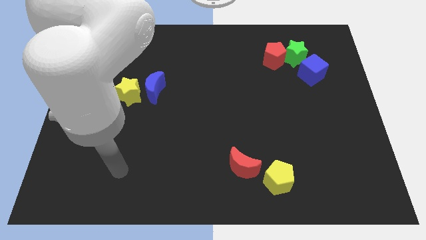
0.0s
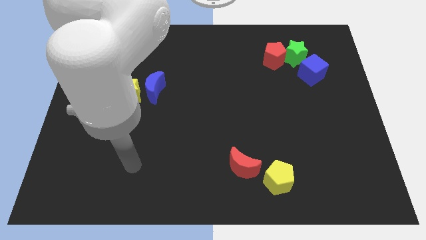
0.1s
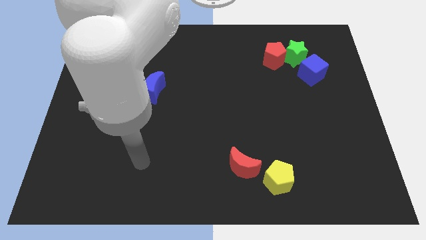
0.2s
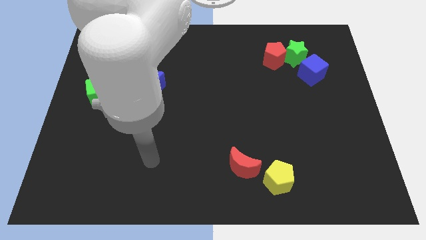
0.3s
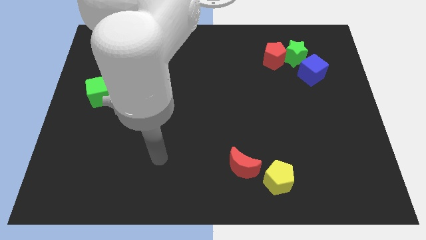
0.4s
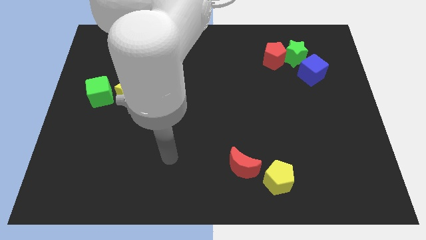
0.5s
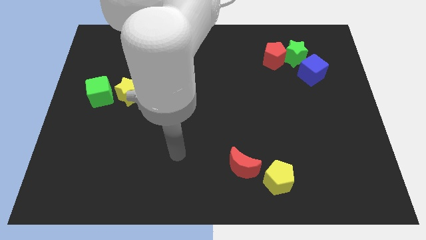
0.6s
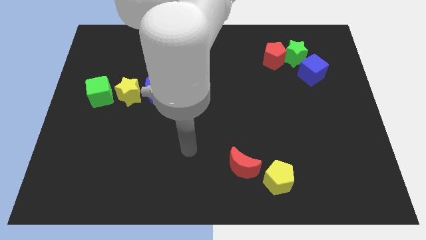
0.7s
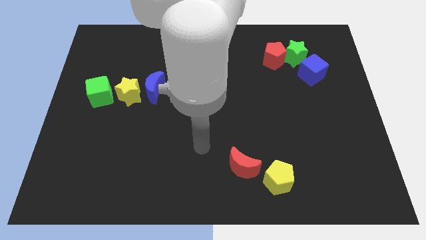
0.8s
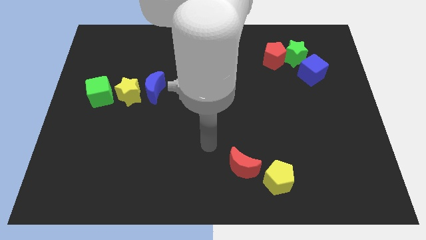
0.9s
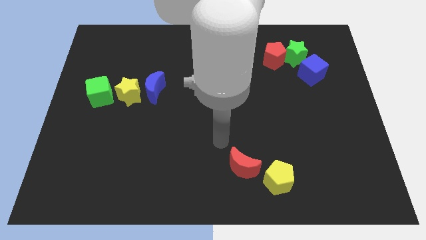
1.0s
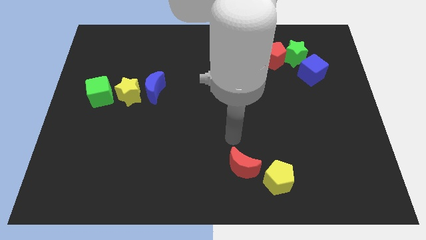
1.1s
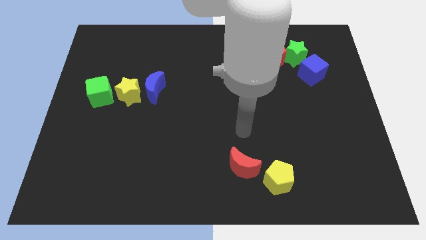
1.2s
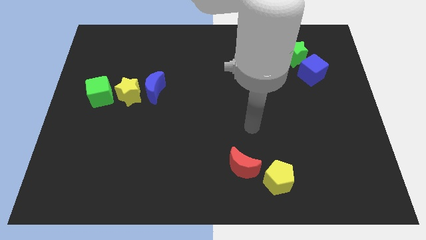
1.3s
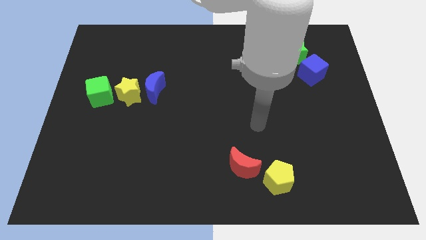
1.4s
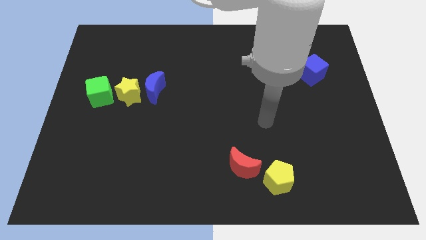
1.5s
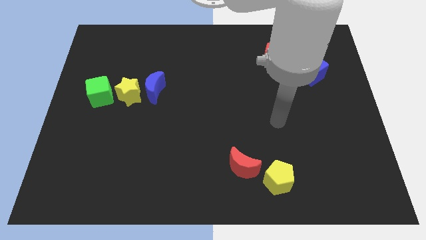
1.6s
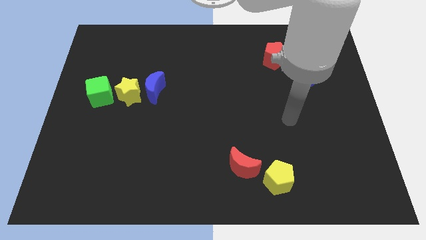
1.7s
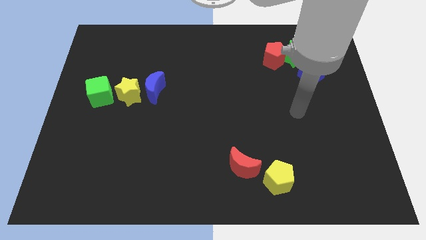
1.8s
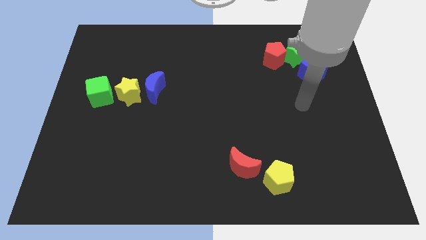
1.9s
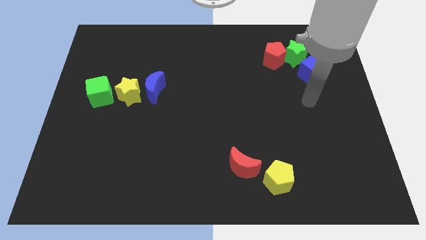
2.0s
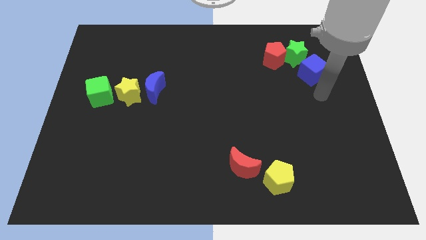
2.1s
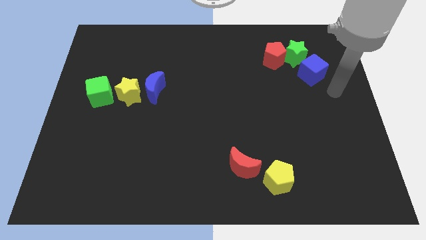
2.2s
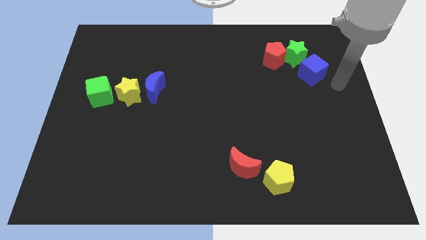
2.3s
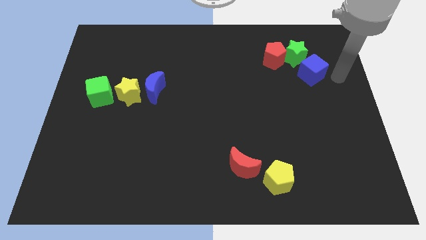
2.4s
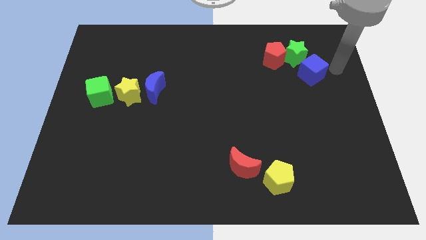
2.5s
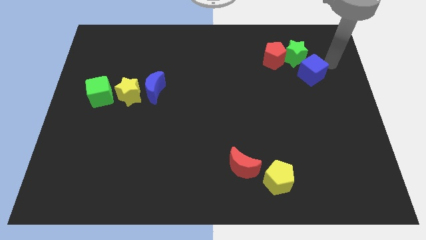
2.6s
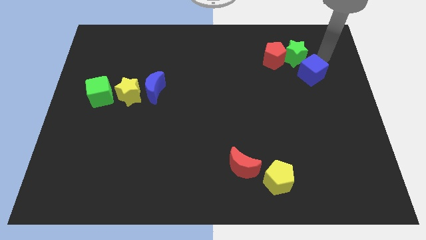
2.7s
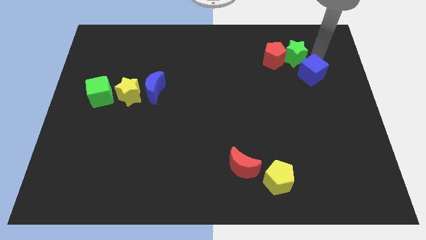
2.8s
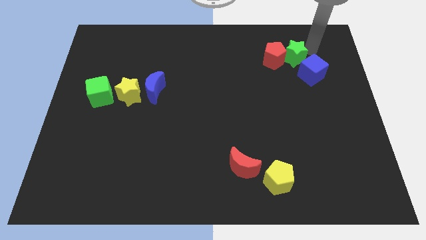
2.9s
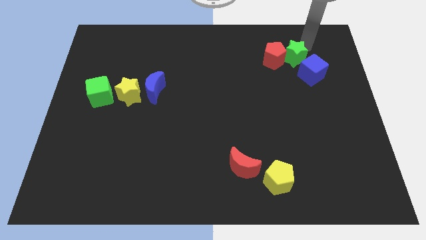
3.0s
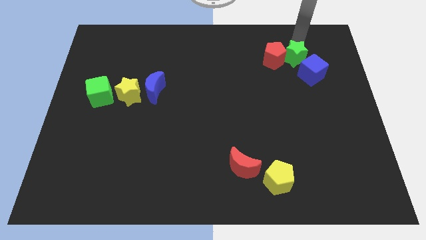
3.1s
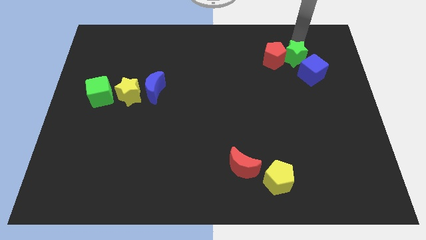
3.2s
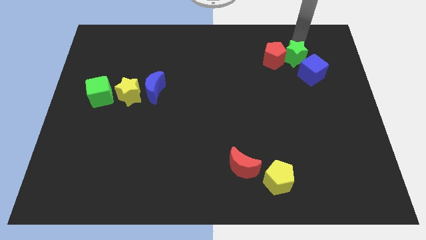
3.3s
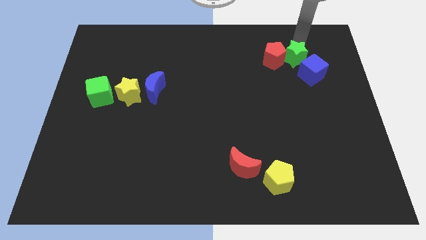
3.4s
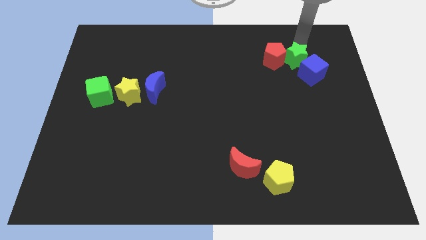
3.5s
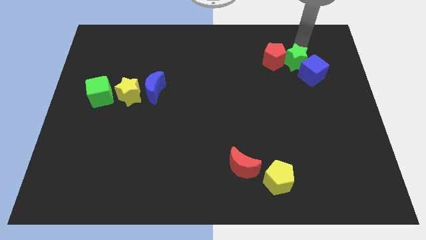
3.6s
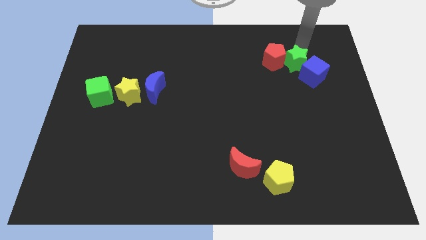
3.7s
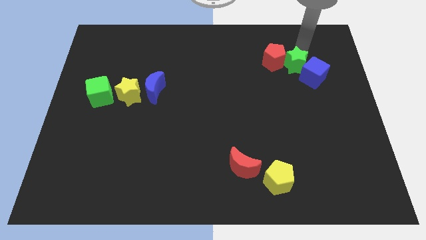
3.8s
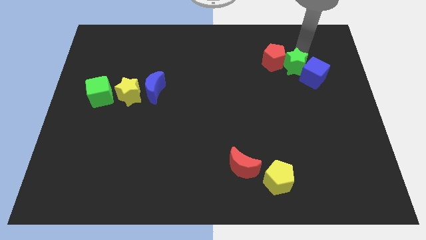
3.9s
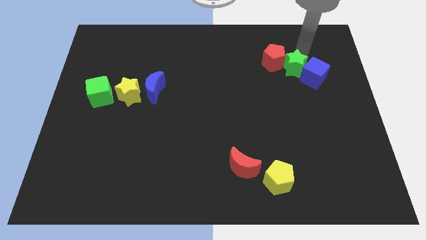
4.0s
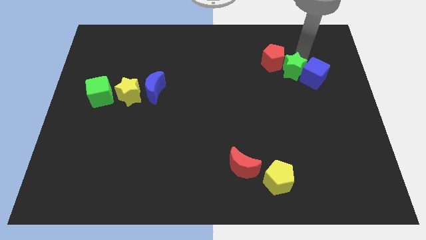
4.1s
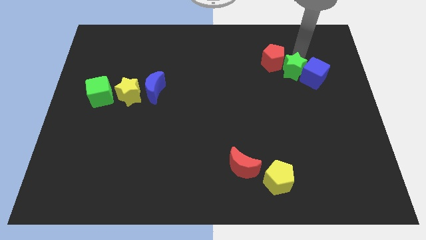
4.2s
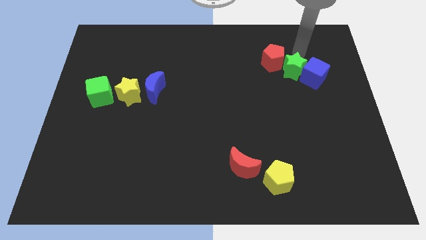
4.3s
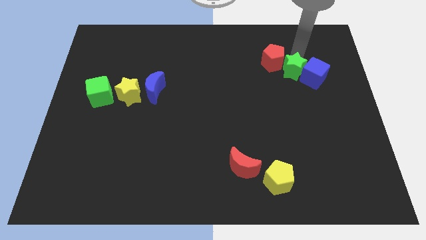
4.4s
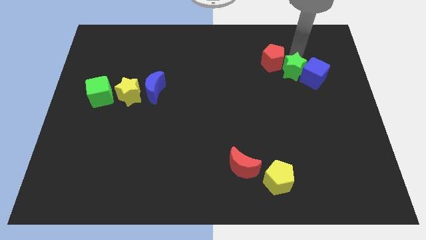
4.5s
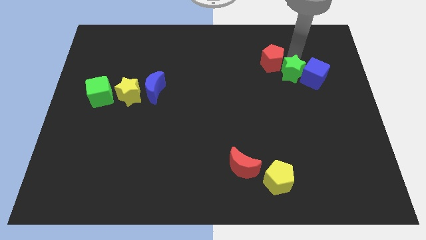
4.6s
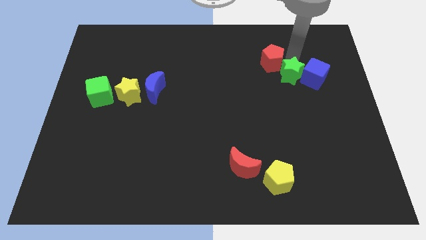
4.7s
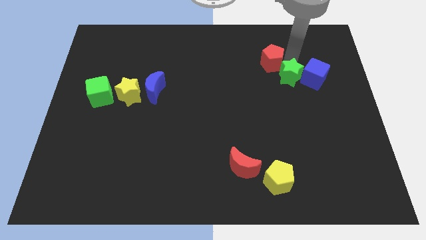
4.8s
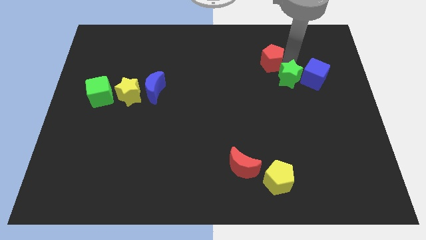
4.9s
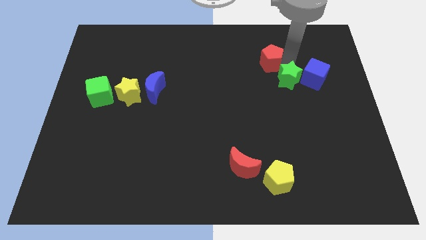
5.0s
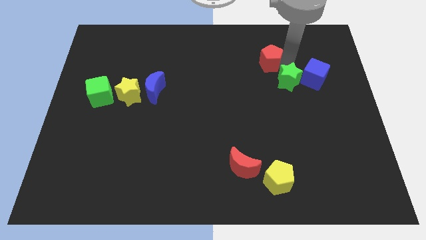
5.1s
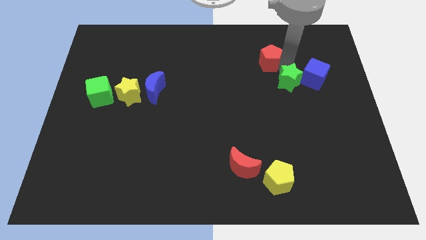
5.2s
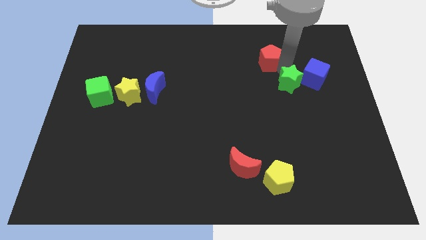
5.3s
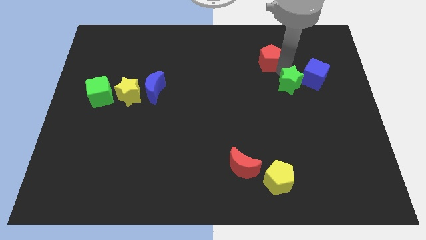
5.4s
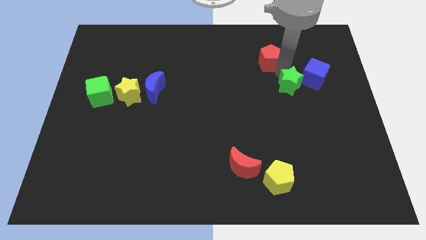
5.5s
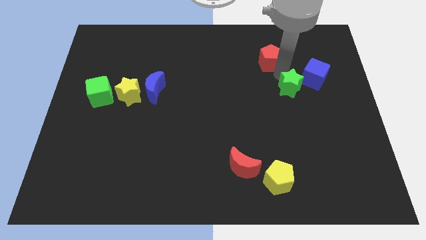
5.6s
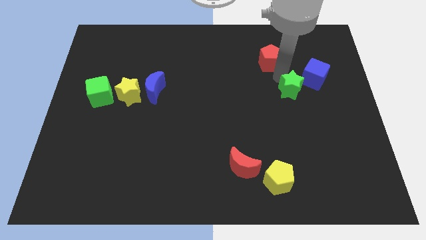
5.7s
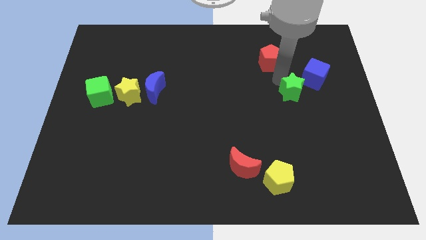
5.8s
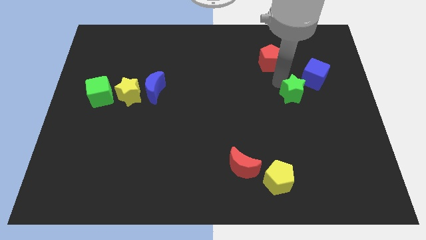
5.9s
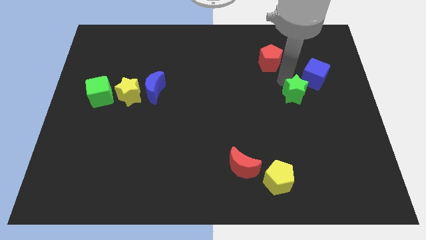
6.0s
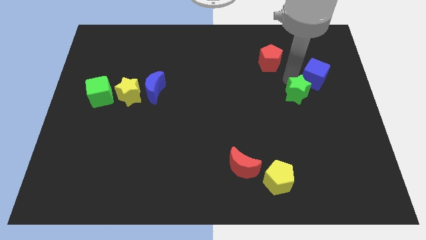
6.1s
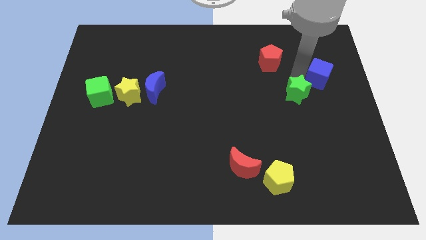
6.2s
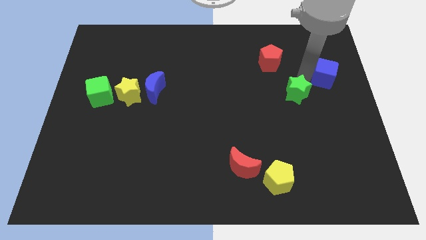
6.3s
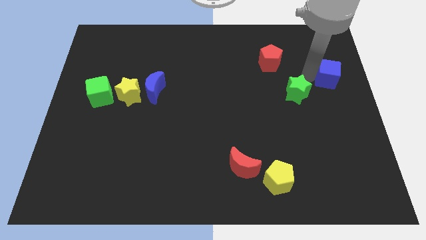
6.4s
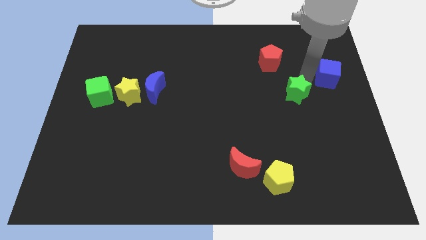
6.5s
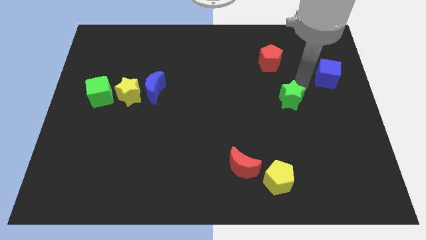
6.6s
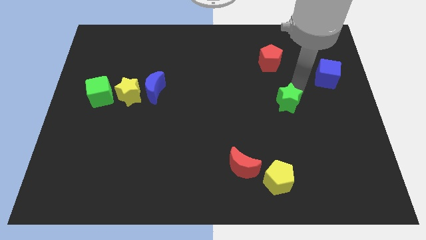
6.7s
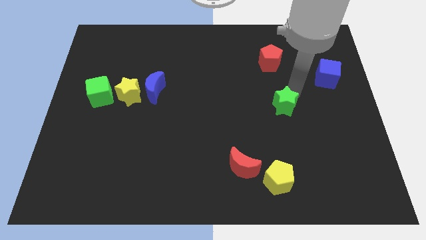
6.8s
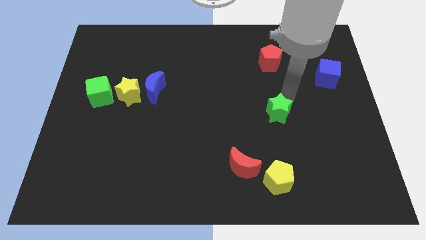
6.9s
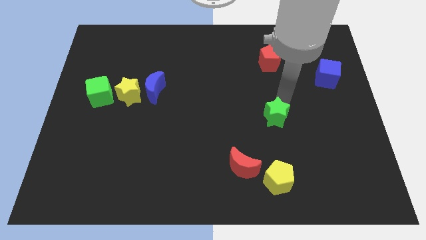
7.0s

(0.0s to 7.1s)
move the green star to the top of the yellow pentagon

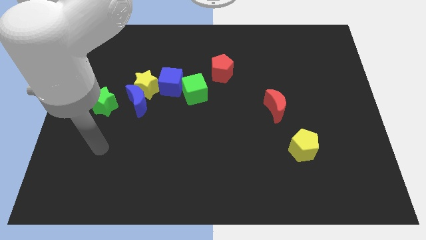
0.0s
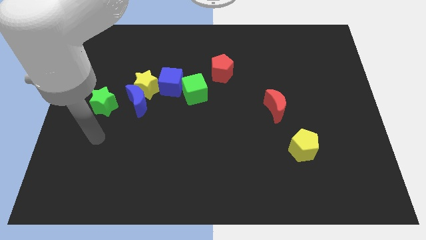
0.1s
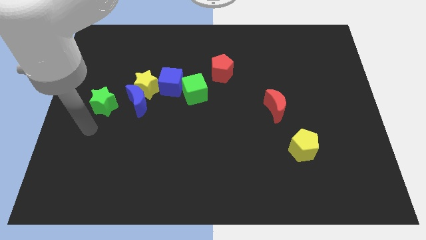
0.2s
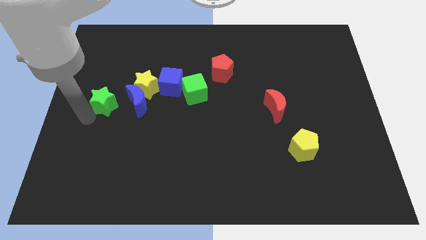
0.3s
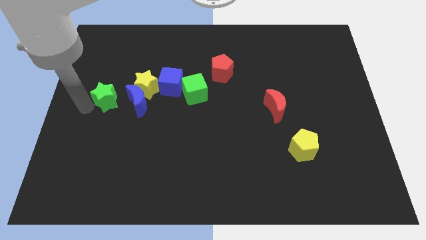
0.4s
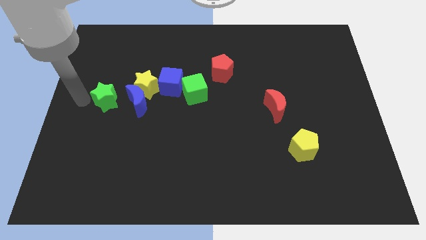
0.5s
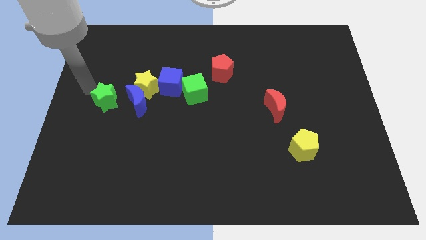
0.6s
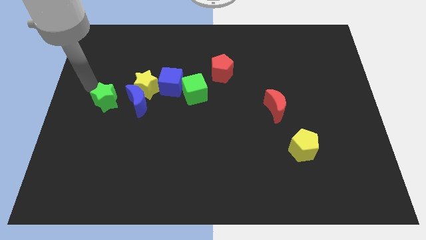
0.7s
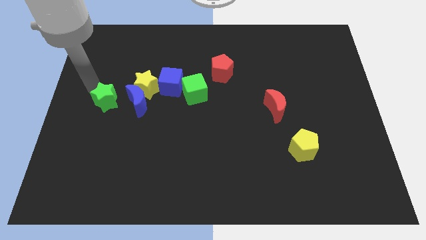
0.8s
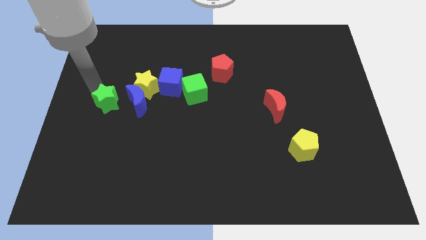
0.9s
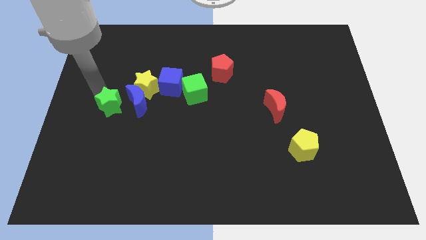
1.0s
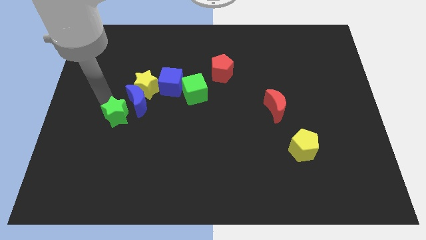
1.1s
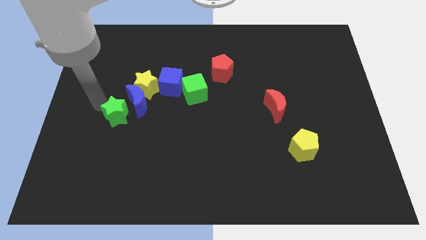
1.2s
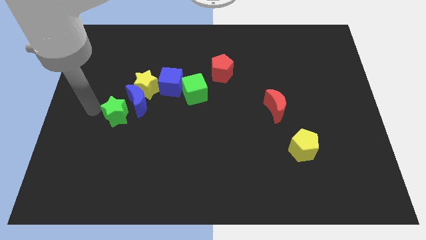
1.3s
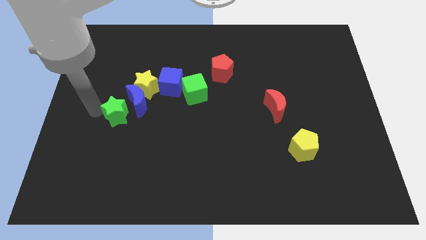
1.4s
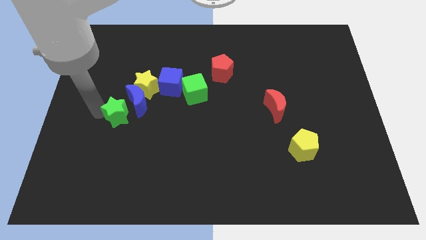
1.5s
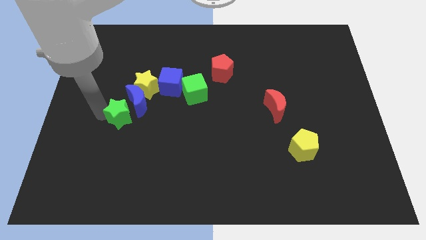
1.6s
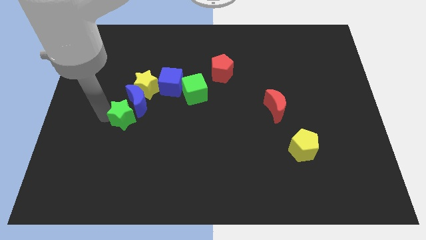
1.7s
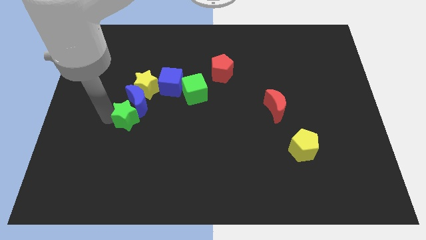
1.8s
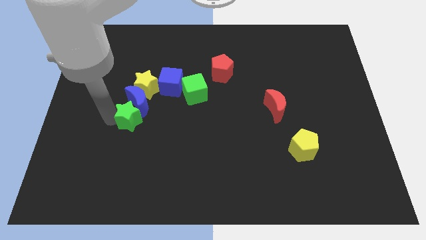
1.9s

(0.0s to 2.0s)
put the green star diagonally down and to the right of the blue moon
